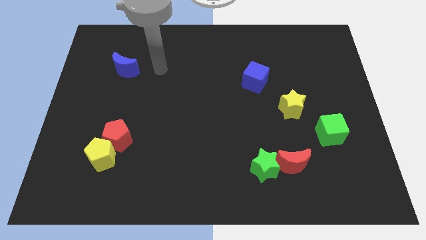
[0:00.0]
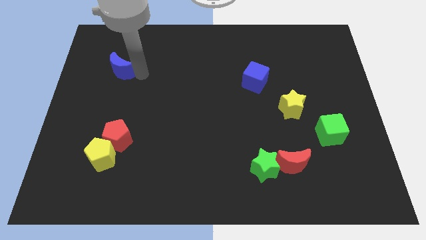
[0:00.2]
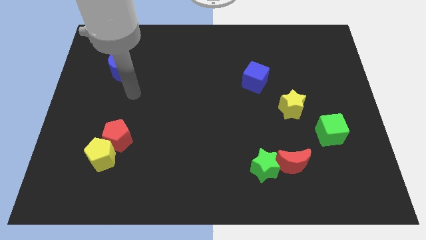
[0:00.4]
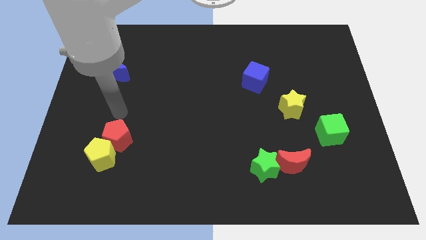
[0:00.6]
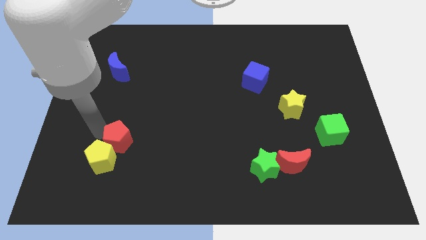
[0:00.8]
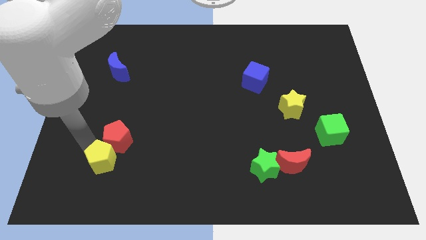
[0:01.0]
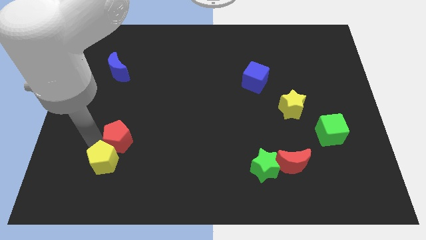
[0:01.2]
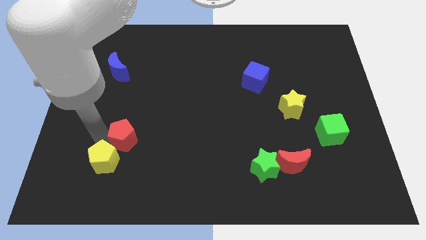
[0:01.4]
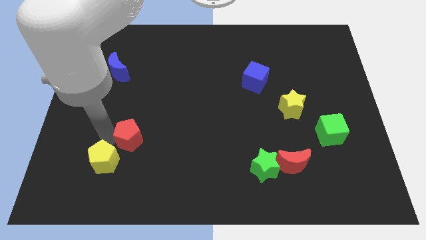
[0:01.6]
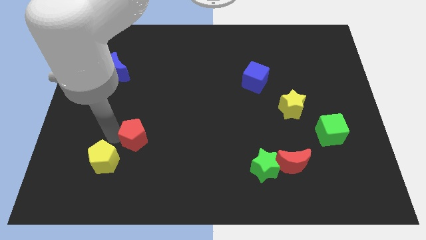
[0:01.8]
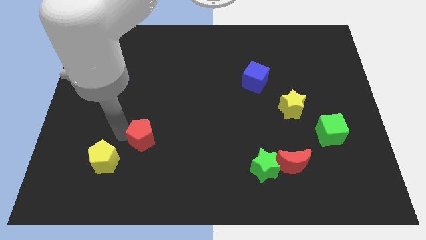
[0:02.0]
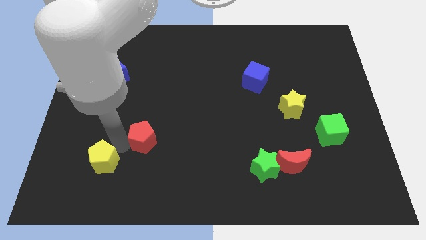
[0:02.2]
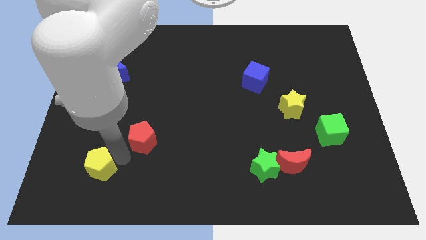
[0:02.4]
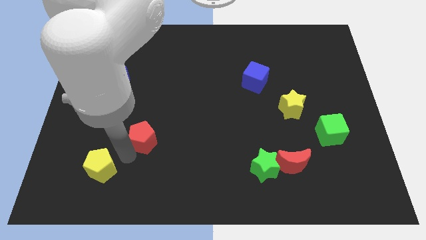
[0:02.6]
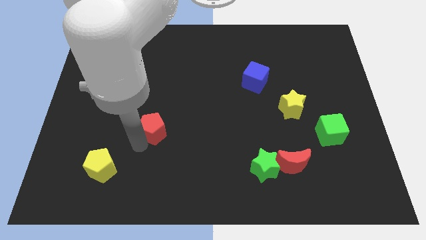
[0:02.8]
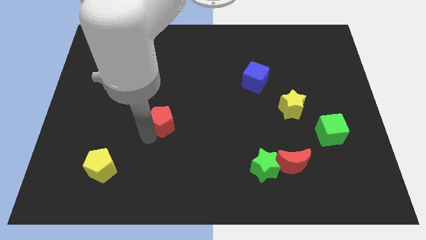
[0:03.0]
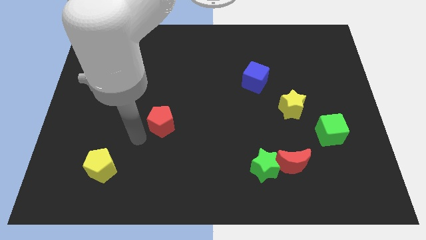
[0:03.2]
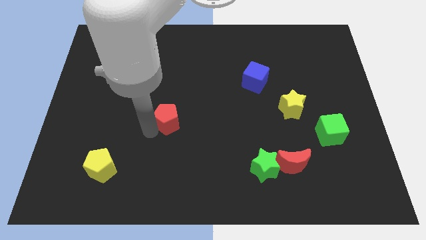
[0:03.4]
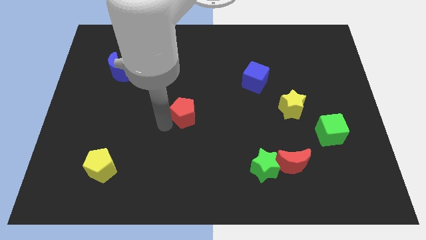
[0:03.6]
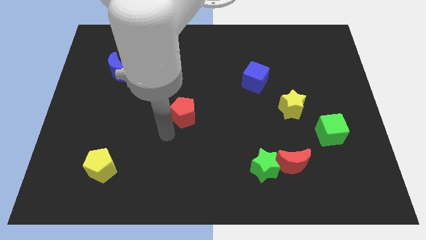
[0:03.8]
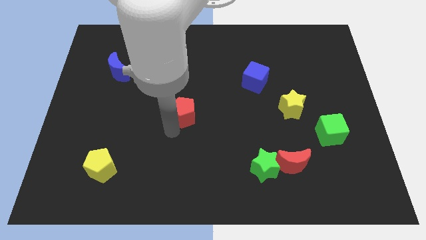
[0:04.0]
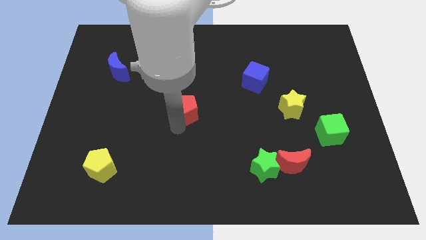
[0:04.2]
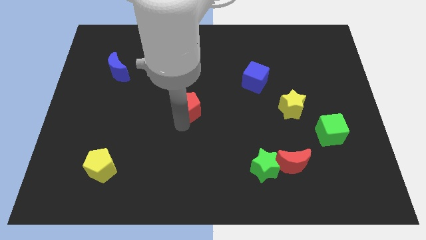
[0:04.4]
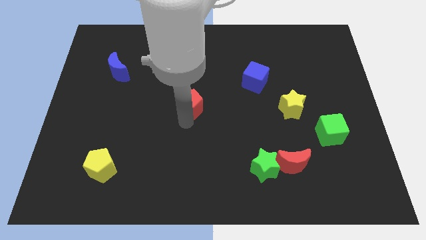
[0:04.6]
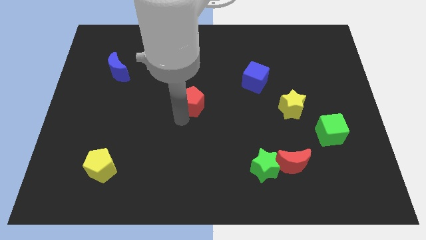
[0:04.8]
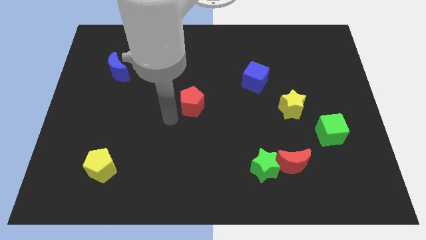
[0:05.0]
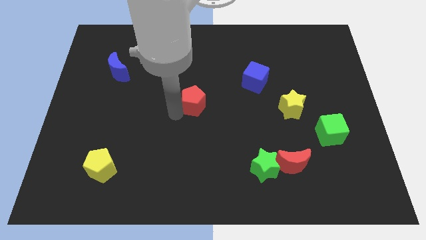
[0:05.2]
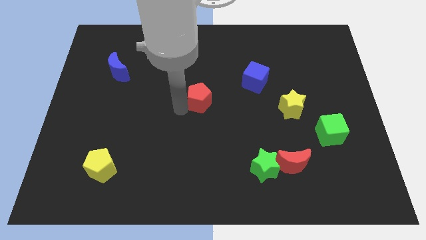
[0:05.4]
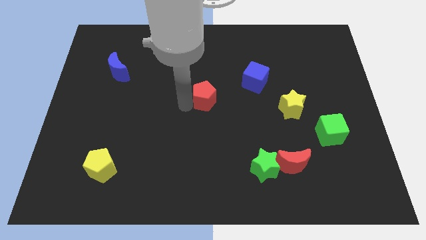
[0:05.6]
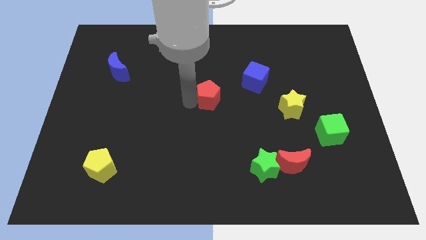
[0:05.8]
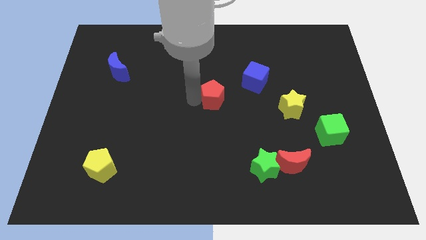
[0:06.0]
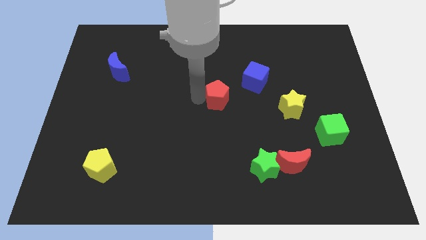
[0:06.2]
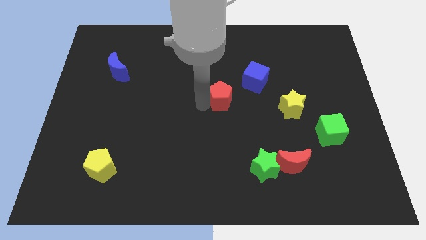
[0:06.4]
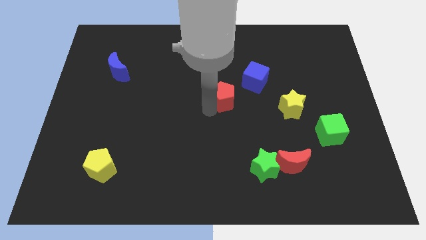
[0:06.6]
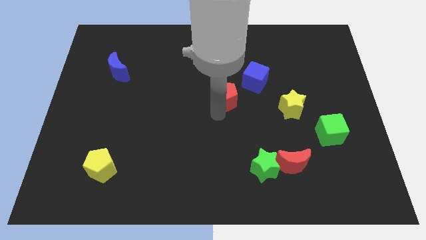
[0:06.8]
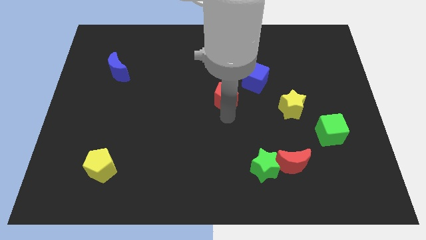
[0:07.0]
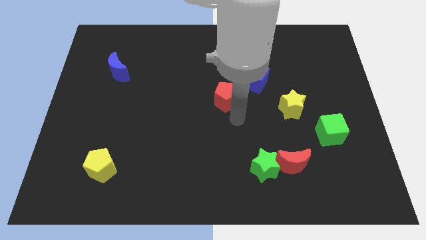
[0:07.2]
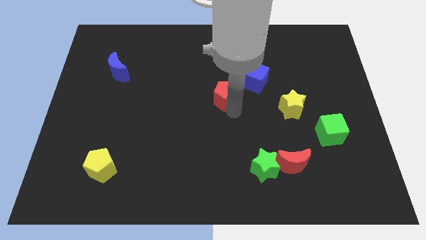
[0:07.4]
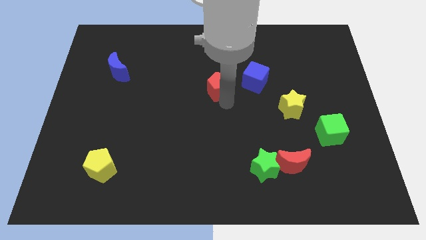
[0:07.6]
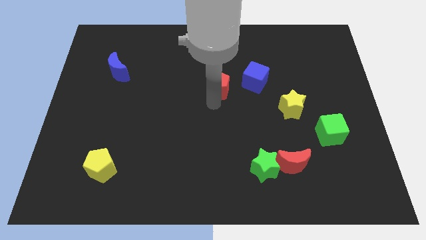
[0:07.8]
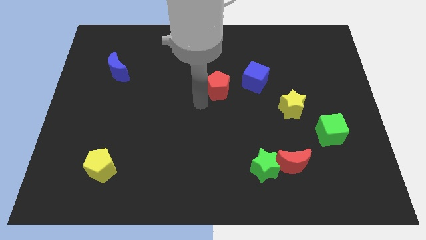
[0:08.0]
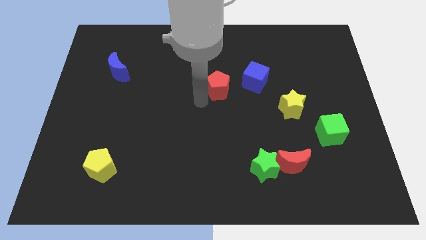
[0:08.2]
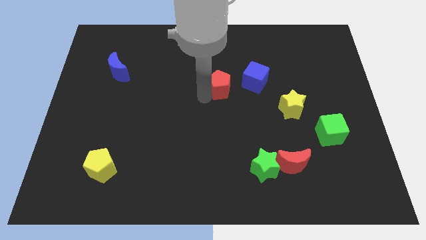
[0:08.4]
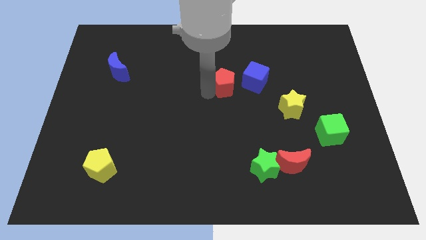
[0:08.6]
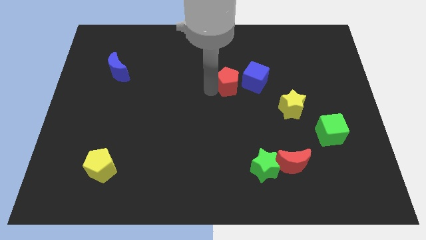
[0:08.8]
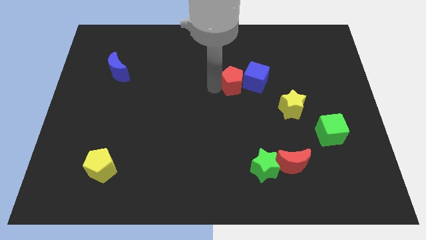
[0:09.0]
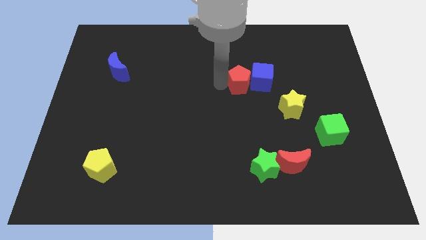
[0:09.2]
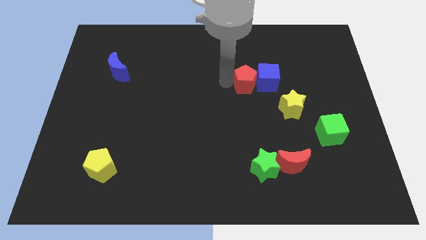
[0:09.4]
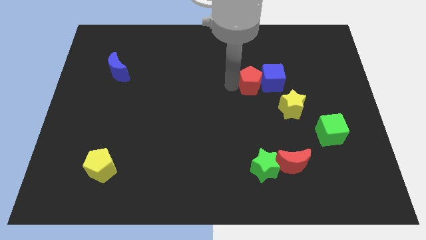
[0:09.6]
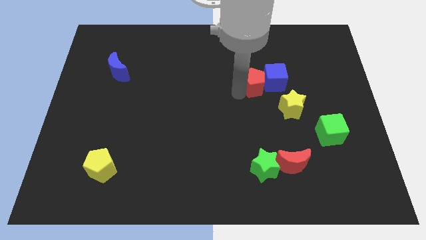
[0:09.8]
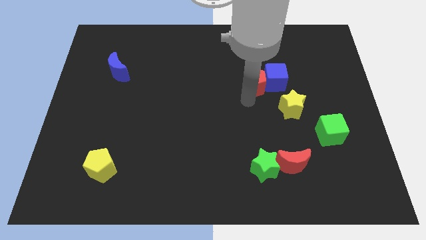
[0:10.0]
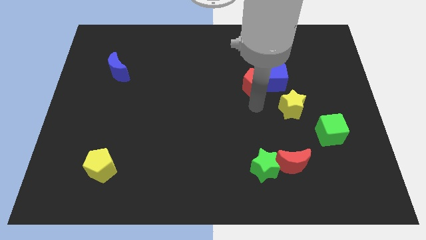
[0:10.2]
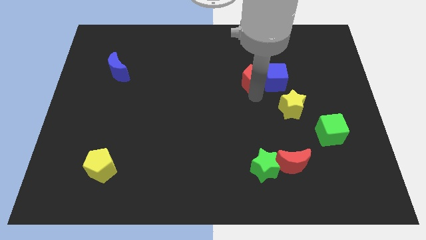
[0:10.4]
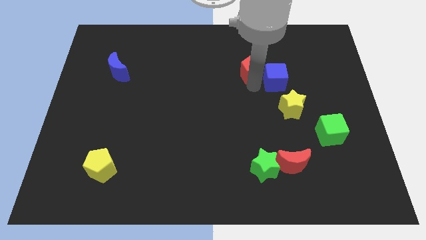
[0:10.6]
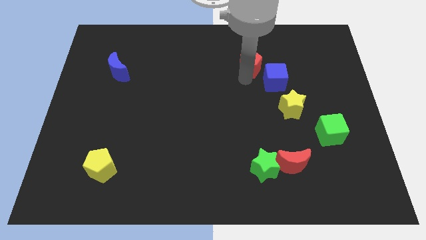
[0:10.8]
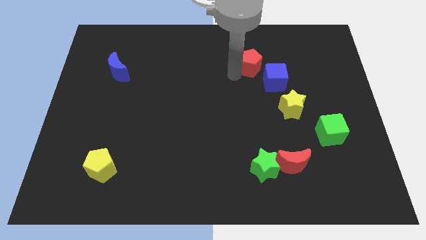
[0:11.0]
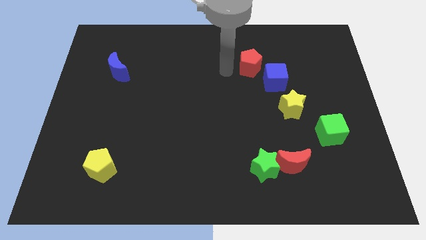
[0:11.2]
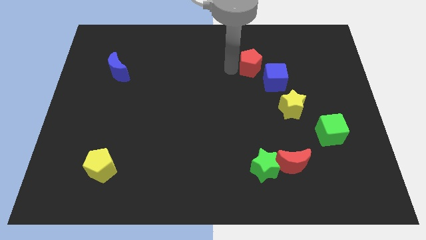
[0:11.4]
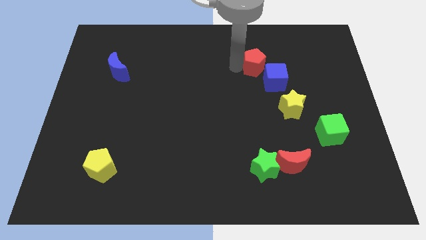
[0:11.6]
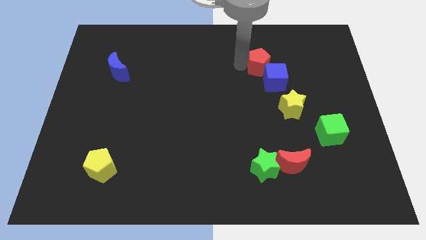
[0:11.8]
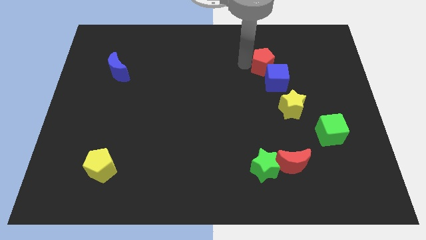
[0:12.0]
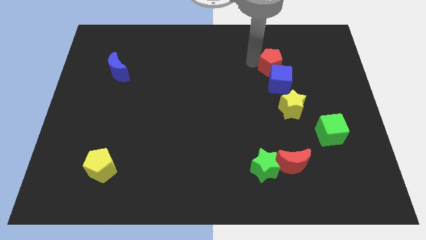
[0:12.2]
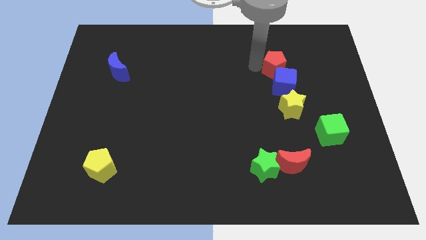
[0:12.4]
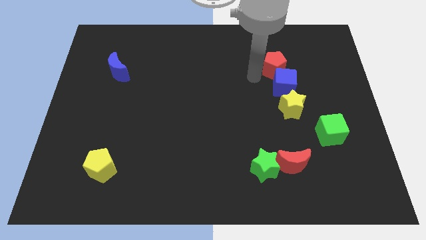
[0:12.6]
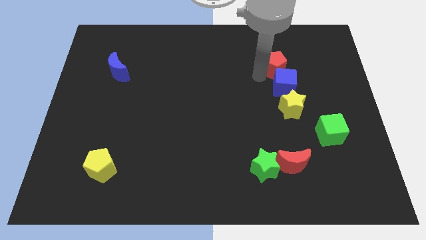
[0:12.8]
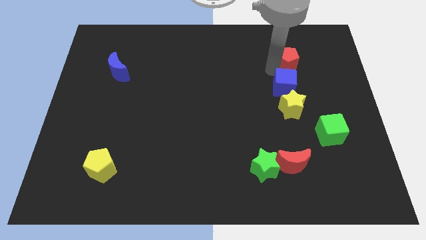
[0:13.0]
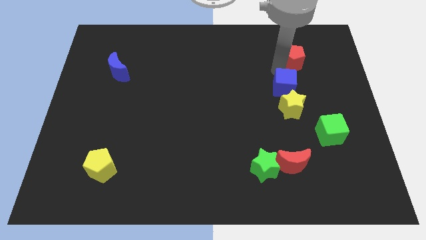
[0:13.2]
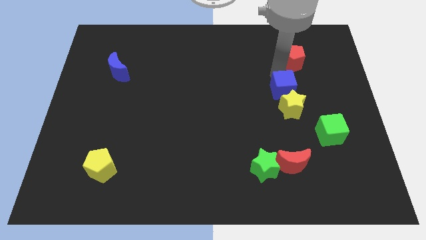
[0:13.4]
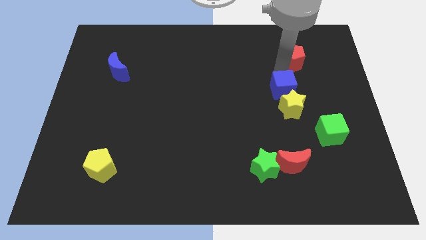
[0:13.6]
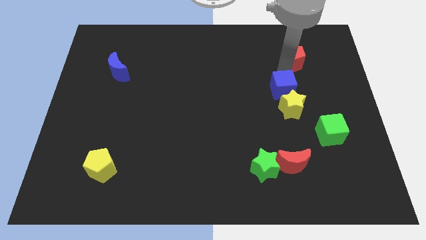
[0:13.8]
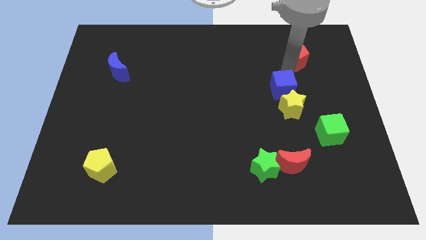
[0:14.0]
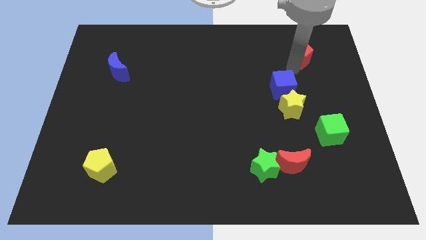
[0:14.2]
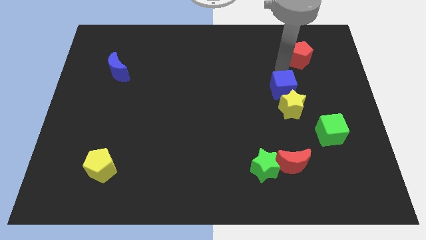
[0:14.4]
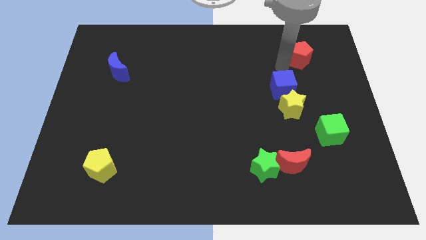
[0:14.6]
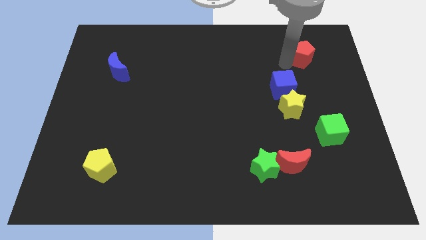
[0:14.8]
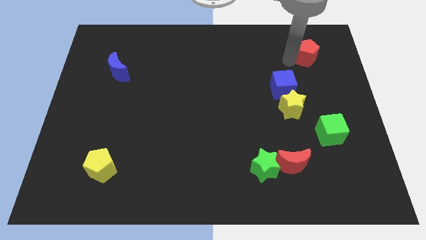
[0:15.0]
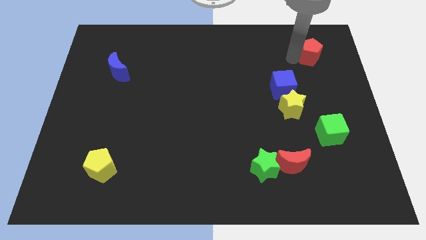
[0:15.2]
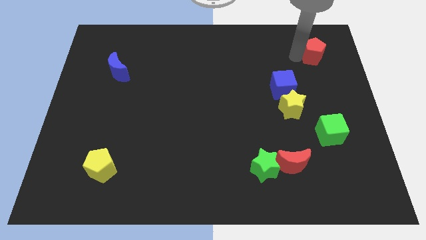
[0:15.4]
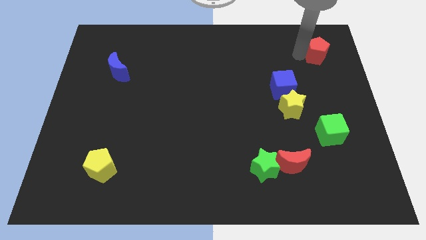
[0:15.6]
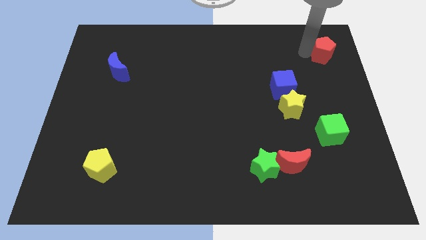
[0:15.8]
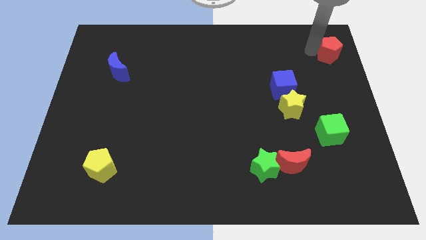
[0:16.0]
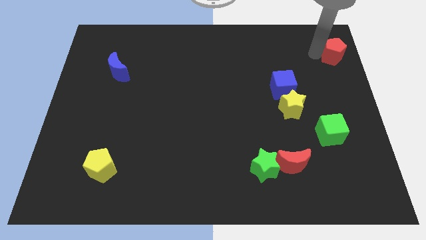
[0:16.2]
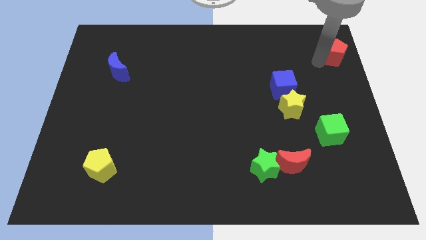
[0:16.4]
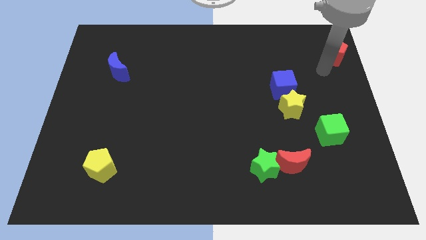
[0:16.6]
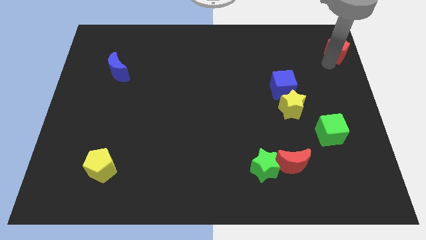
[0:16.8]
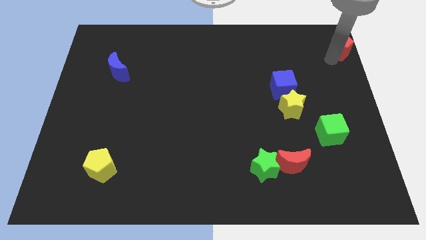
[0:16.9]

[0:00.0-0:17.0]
push the red pentagon to the top right of the board
